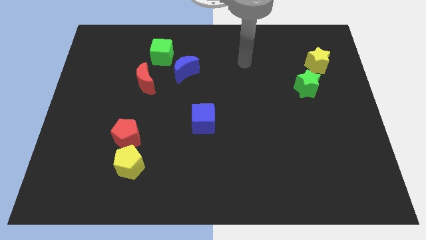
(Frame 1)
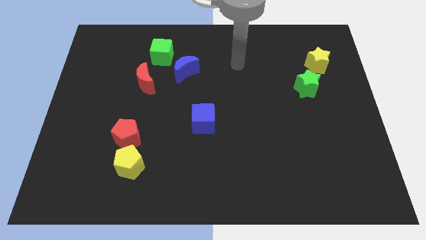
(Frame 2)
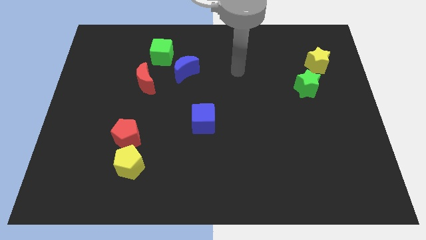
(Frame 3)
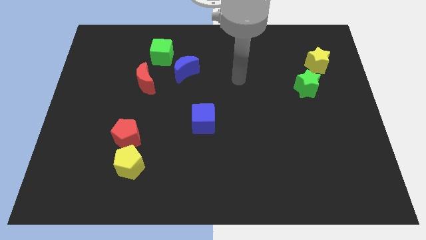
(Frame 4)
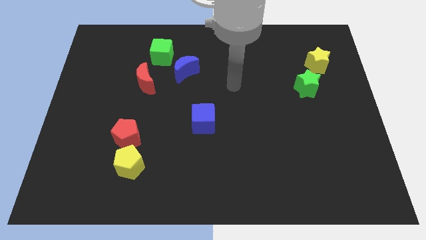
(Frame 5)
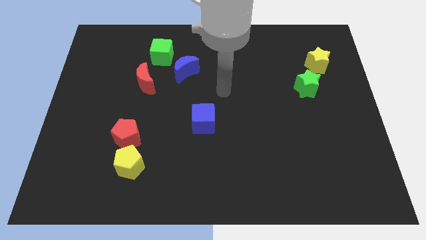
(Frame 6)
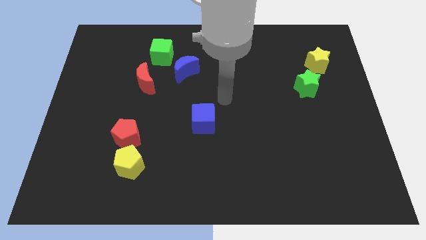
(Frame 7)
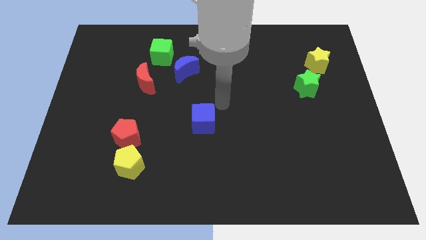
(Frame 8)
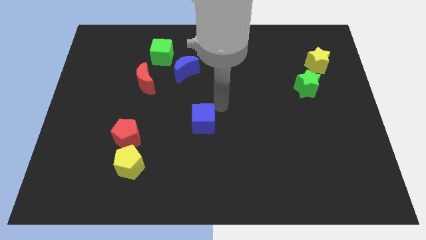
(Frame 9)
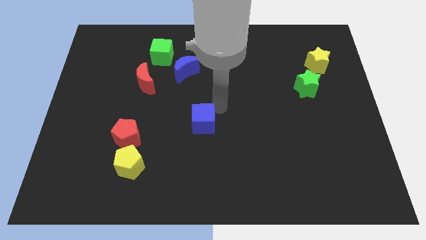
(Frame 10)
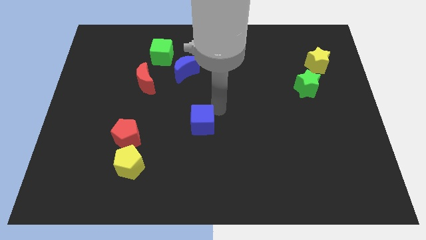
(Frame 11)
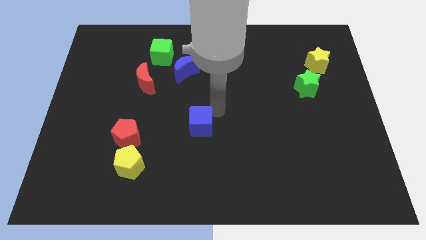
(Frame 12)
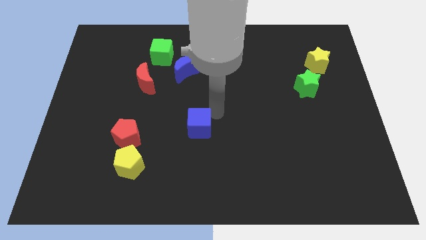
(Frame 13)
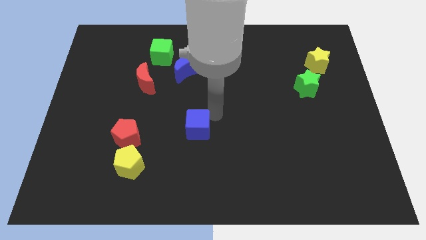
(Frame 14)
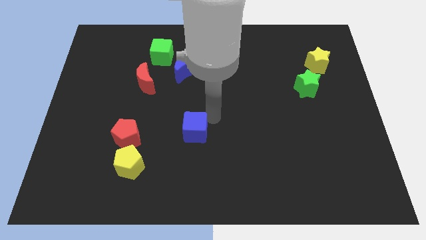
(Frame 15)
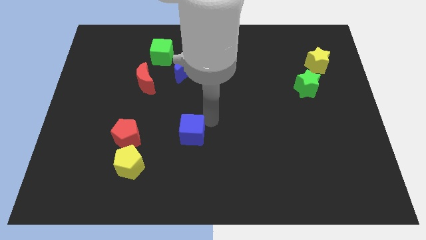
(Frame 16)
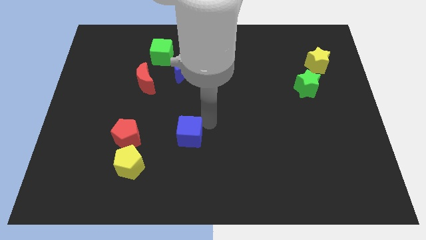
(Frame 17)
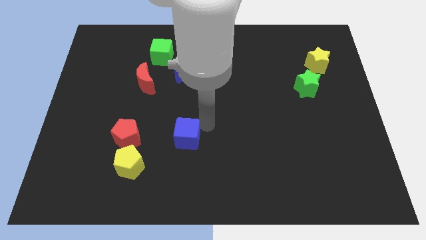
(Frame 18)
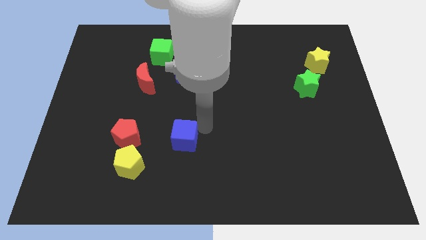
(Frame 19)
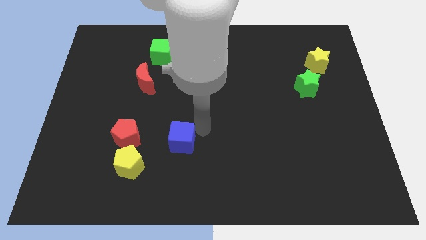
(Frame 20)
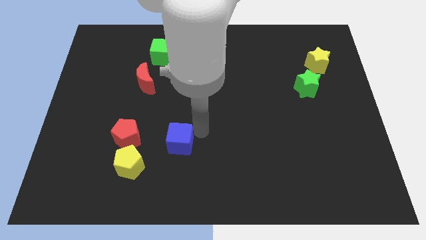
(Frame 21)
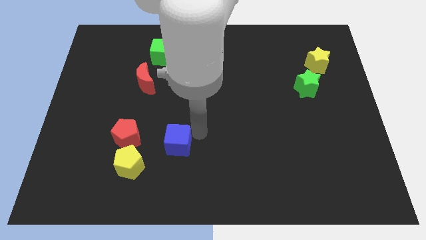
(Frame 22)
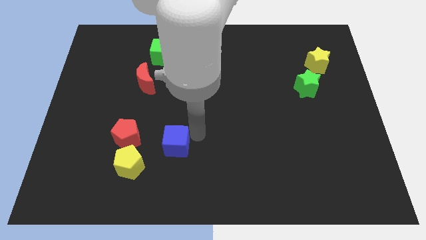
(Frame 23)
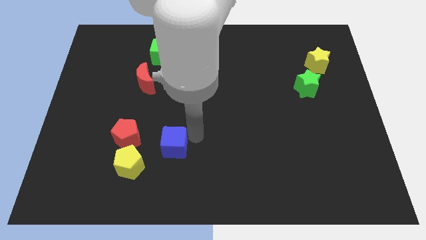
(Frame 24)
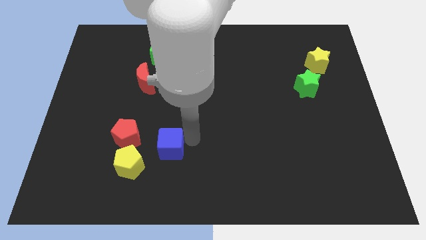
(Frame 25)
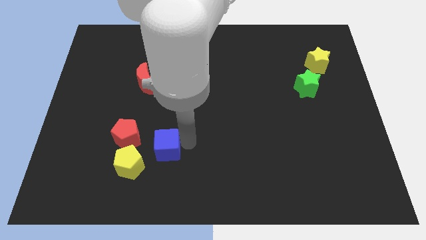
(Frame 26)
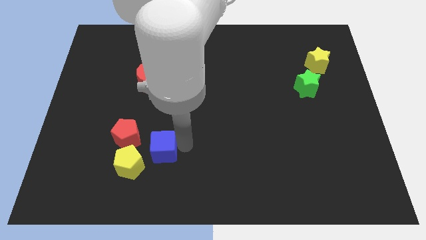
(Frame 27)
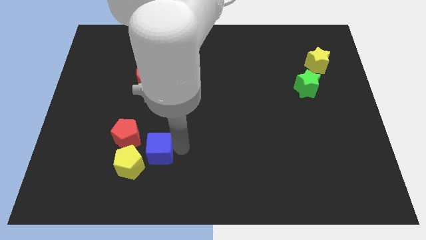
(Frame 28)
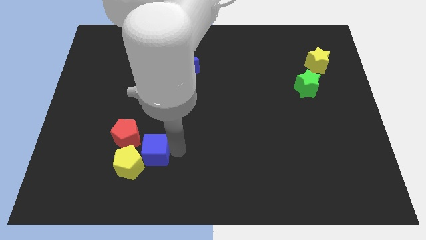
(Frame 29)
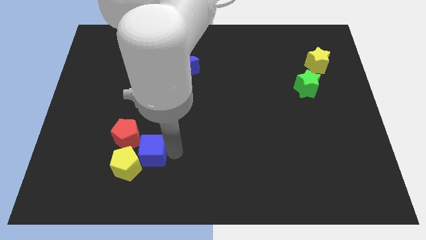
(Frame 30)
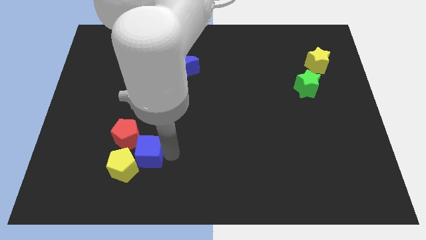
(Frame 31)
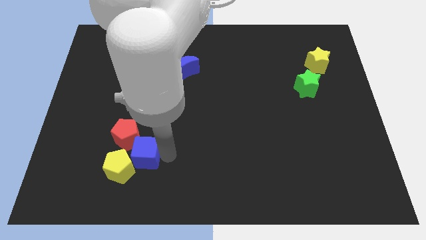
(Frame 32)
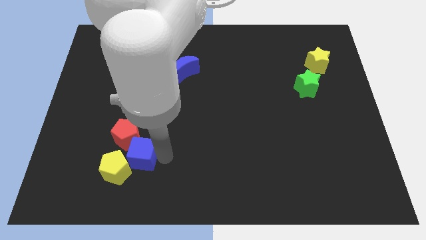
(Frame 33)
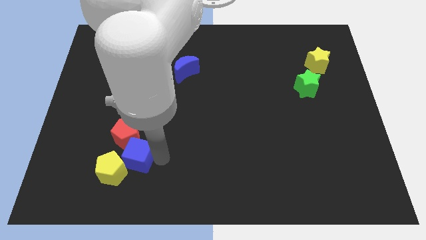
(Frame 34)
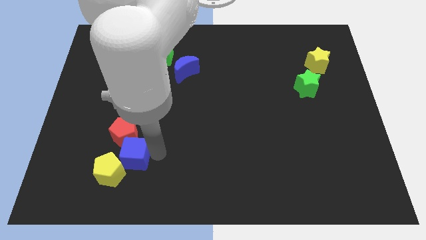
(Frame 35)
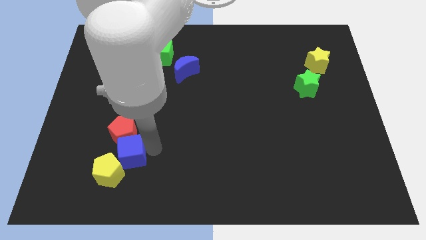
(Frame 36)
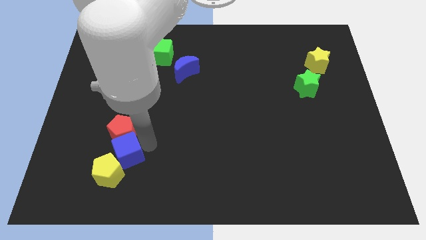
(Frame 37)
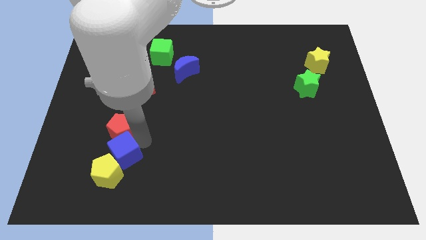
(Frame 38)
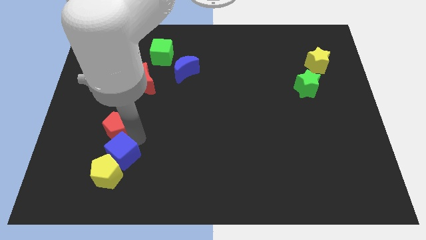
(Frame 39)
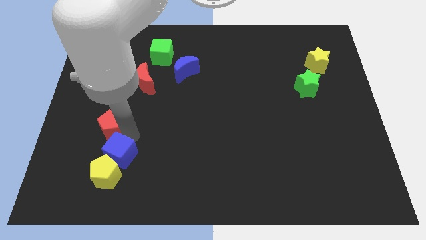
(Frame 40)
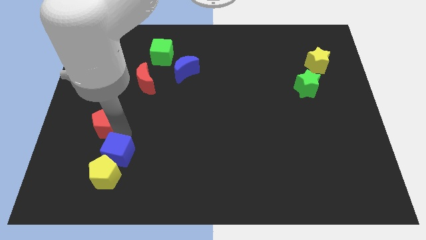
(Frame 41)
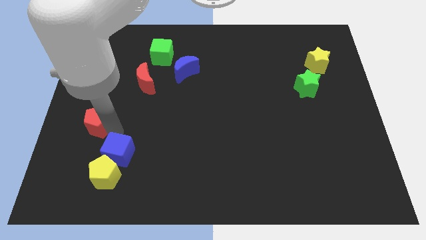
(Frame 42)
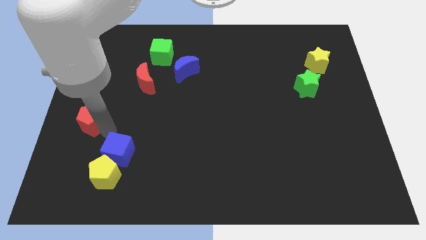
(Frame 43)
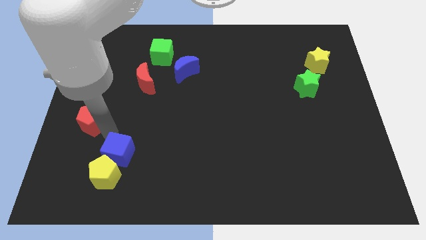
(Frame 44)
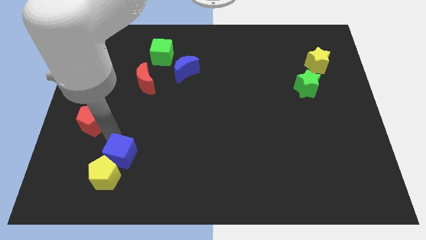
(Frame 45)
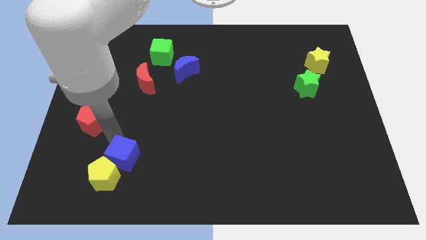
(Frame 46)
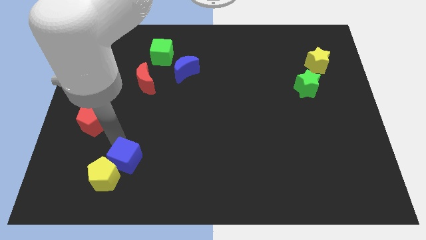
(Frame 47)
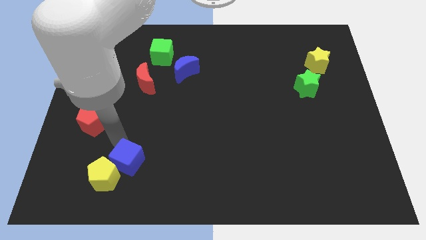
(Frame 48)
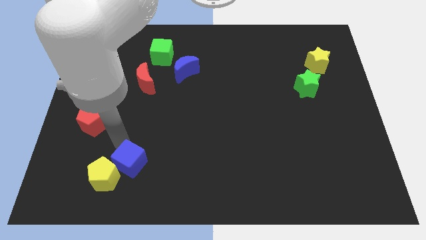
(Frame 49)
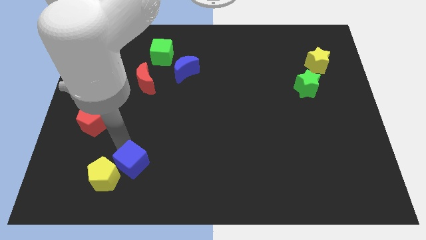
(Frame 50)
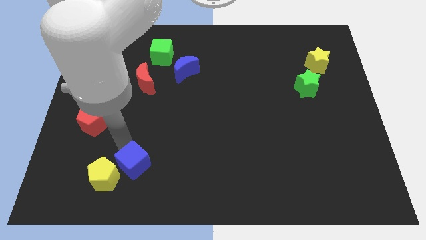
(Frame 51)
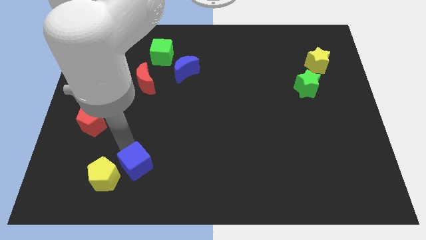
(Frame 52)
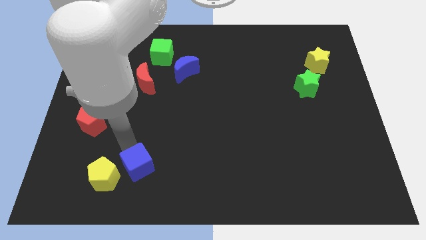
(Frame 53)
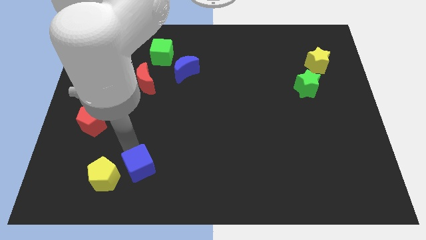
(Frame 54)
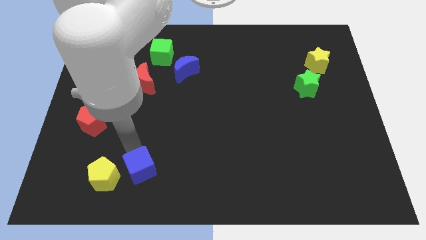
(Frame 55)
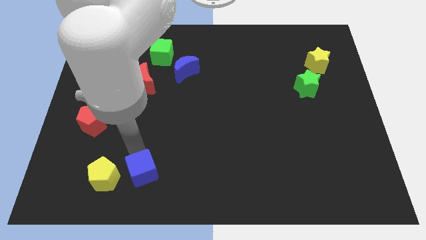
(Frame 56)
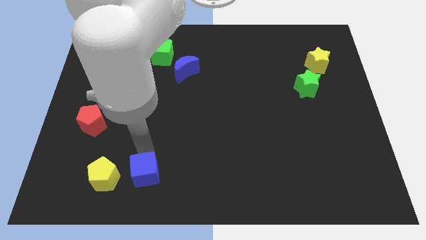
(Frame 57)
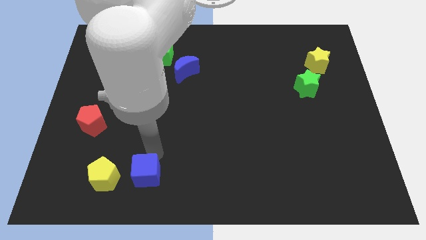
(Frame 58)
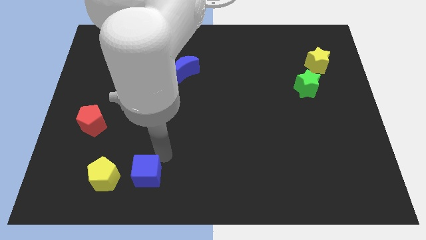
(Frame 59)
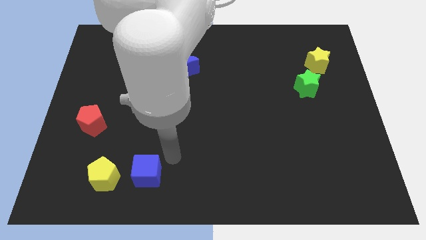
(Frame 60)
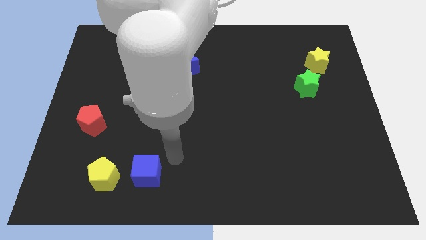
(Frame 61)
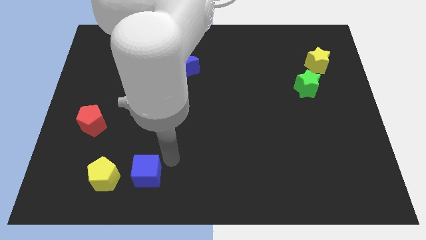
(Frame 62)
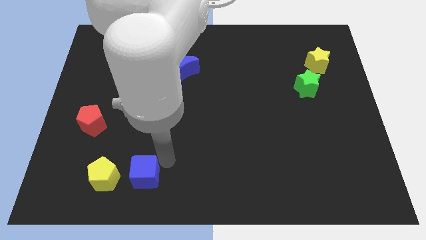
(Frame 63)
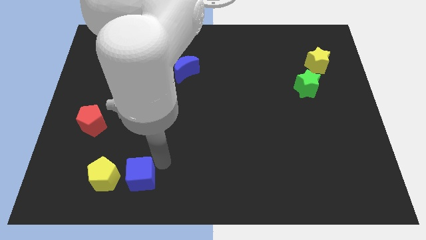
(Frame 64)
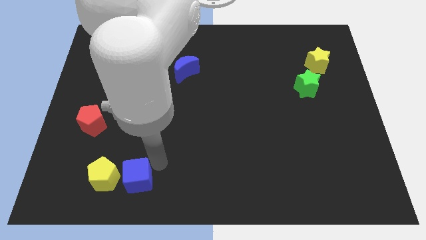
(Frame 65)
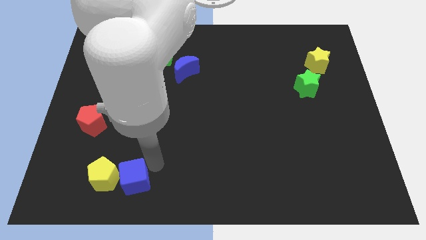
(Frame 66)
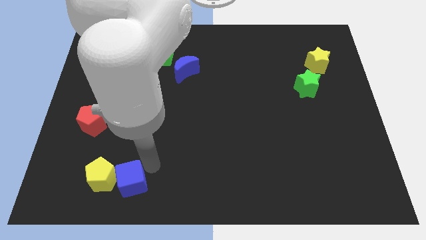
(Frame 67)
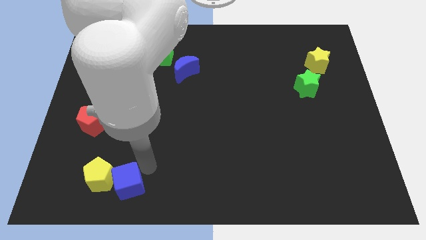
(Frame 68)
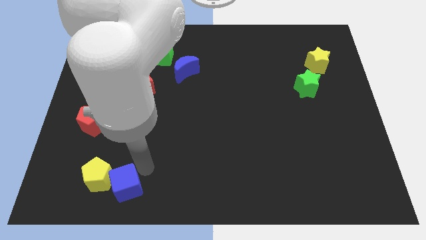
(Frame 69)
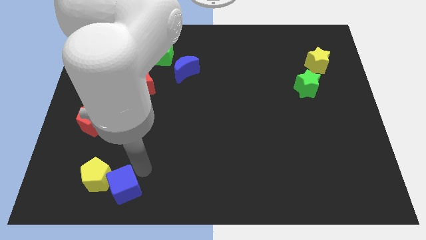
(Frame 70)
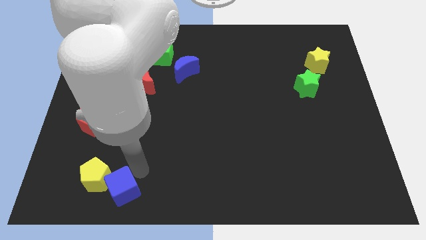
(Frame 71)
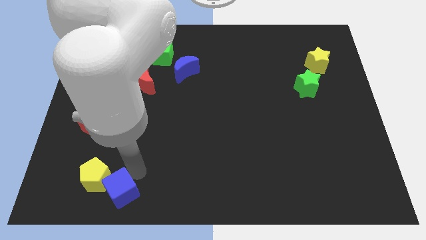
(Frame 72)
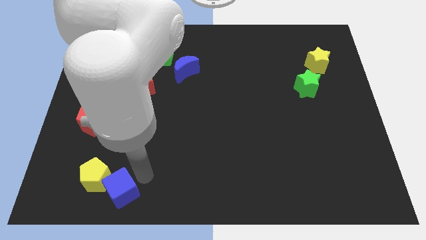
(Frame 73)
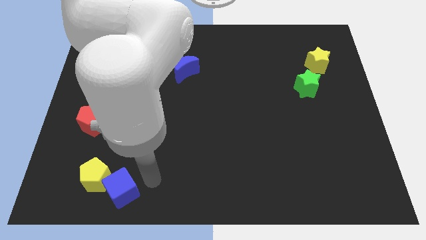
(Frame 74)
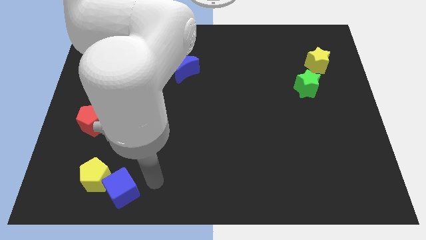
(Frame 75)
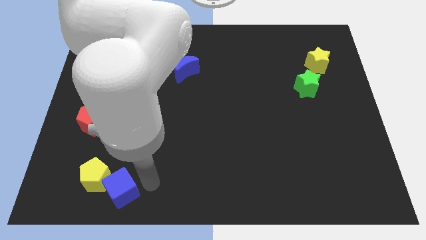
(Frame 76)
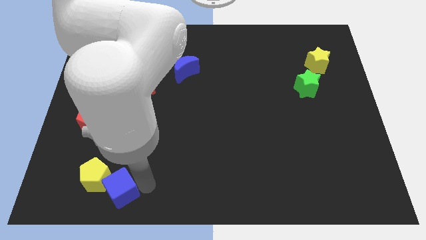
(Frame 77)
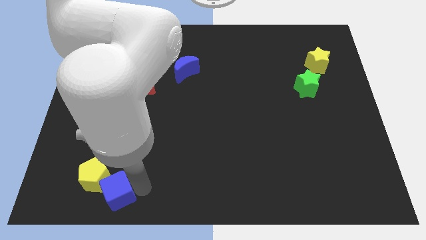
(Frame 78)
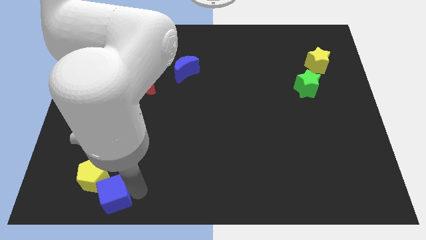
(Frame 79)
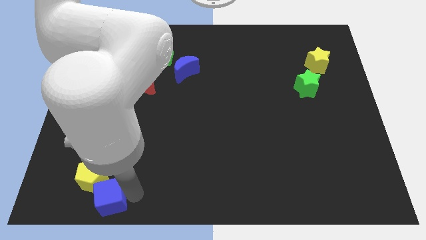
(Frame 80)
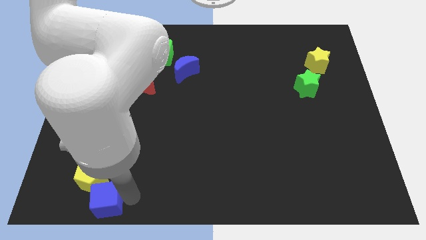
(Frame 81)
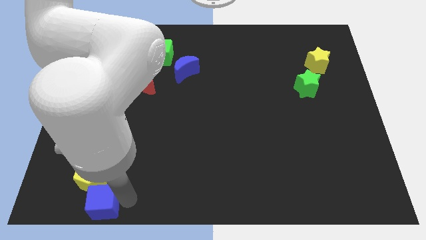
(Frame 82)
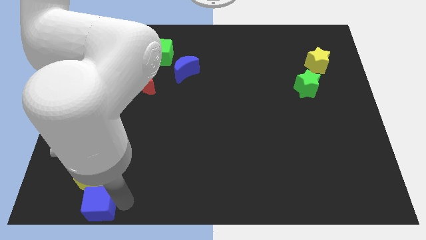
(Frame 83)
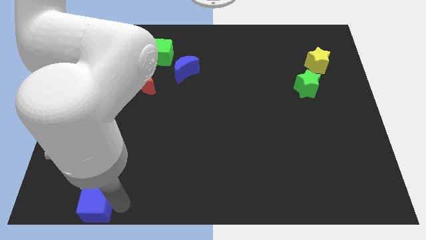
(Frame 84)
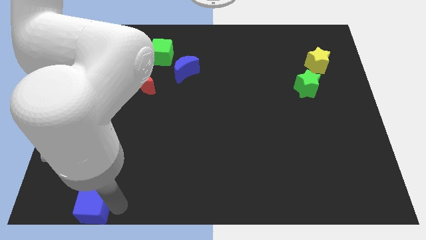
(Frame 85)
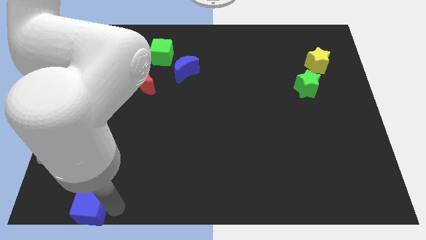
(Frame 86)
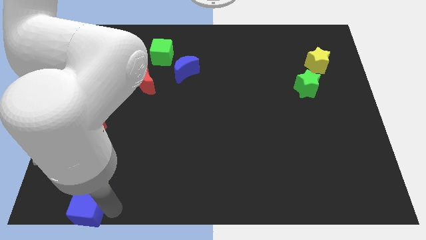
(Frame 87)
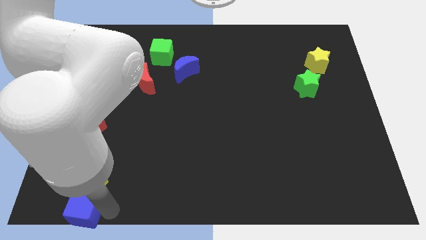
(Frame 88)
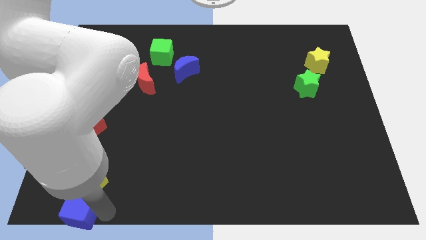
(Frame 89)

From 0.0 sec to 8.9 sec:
put the blue cube to the bottom left corner
